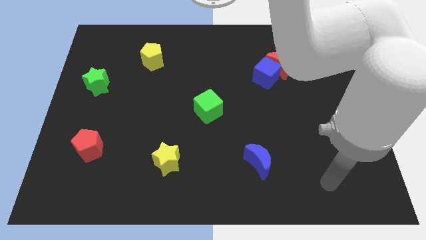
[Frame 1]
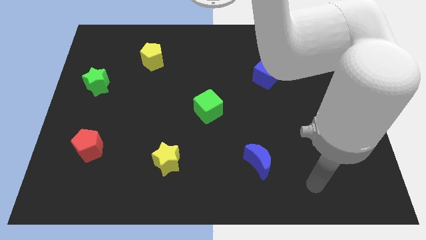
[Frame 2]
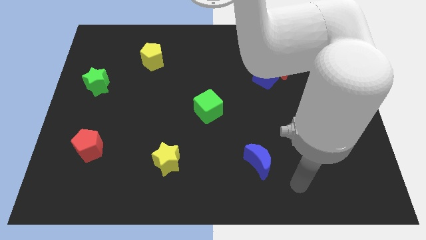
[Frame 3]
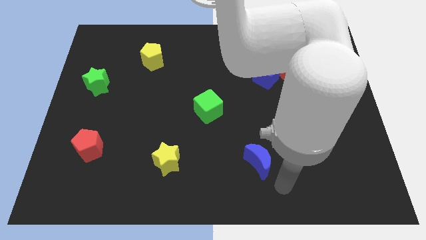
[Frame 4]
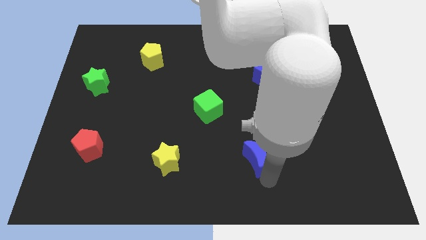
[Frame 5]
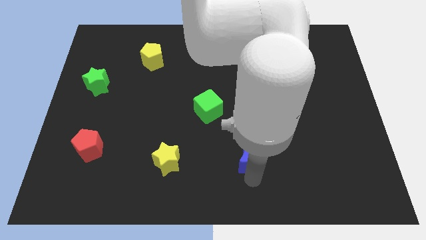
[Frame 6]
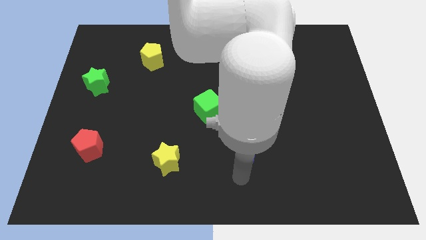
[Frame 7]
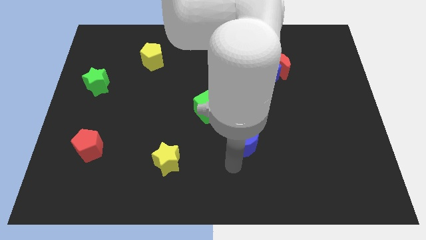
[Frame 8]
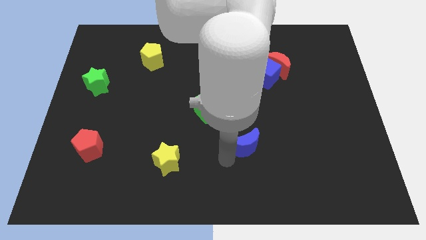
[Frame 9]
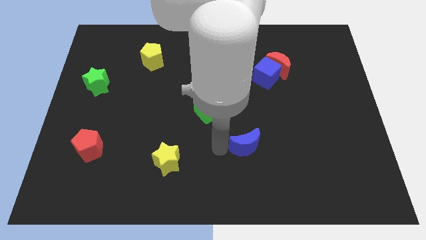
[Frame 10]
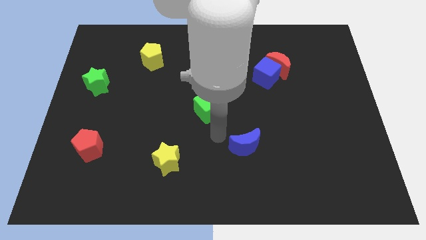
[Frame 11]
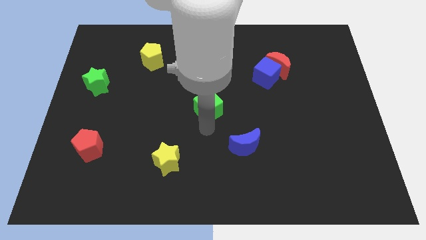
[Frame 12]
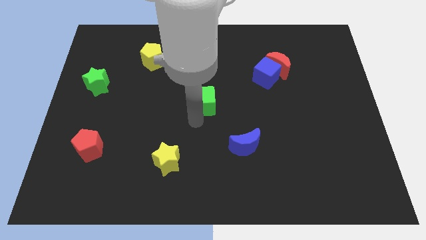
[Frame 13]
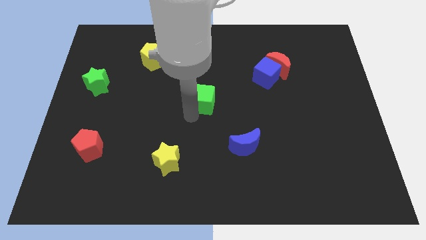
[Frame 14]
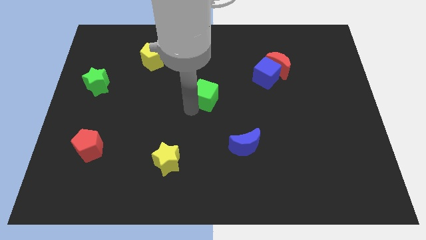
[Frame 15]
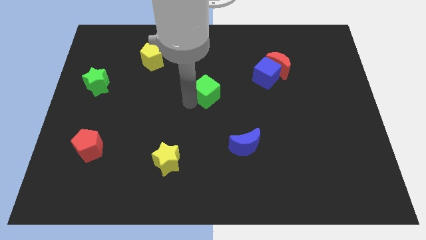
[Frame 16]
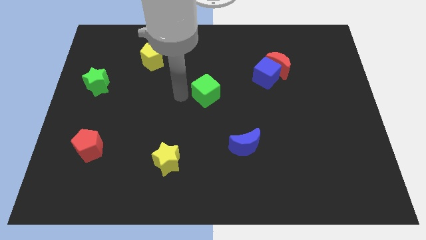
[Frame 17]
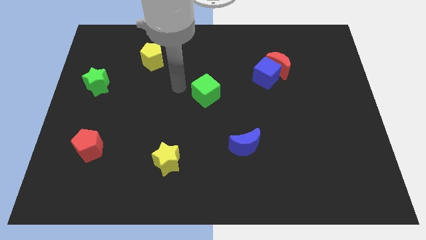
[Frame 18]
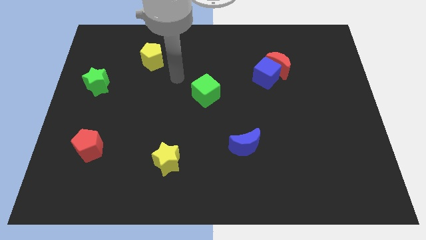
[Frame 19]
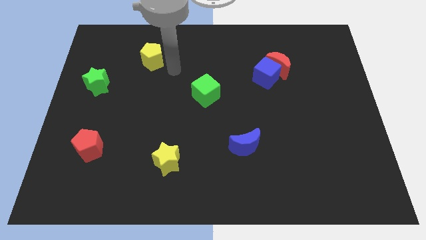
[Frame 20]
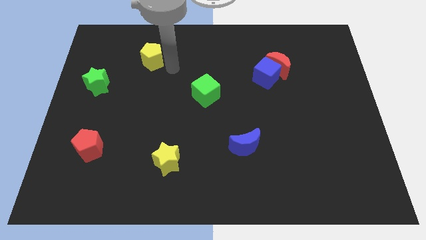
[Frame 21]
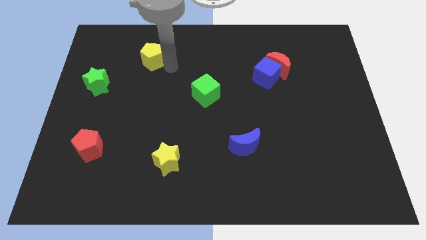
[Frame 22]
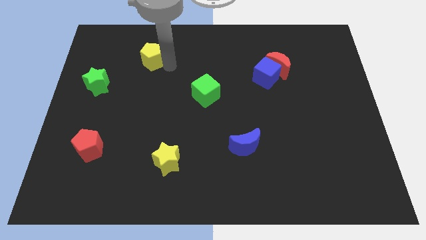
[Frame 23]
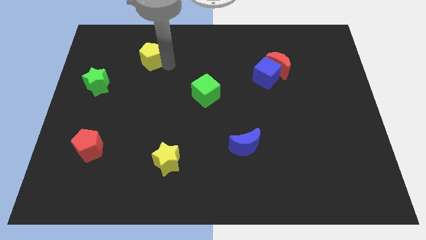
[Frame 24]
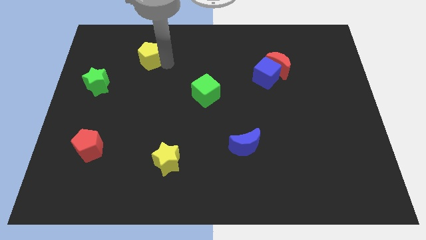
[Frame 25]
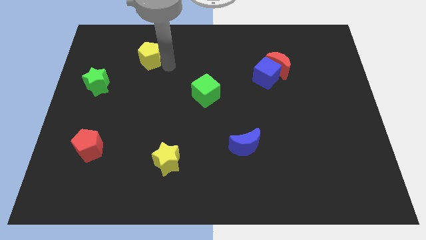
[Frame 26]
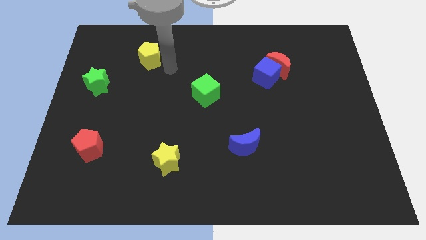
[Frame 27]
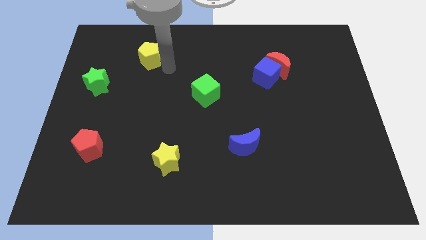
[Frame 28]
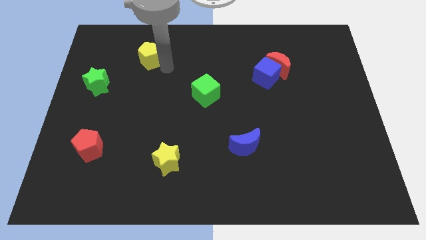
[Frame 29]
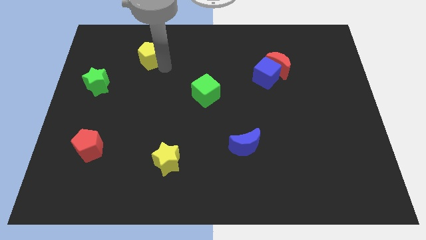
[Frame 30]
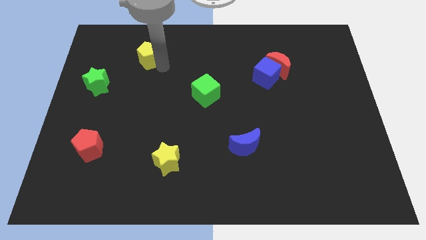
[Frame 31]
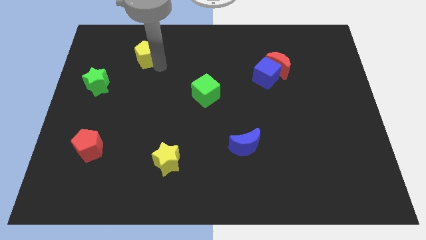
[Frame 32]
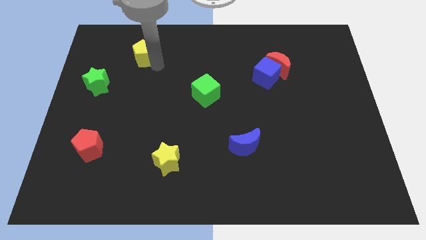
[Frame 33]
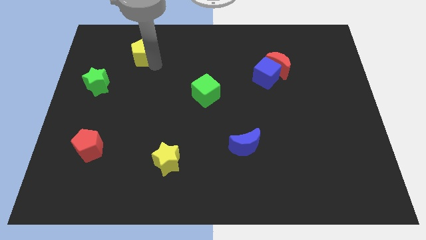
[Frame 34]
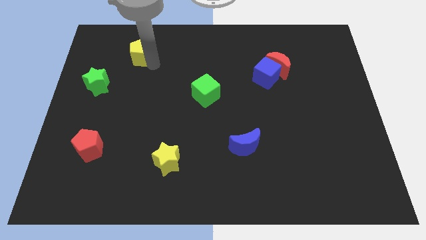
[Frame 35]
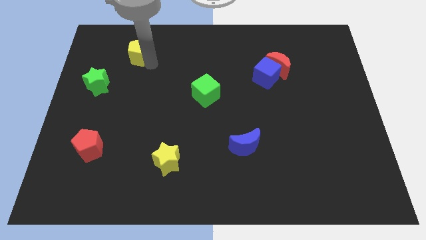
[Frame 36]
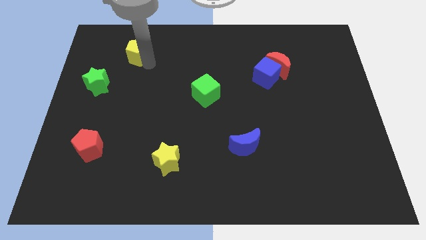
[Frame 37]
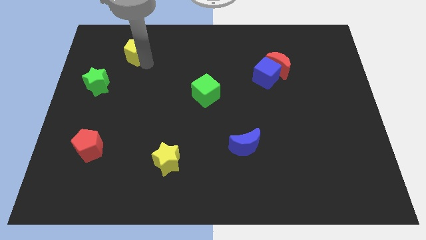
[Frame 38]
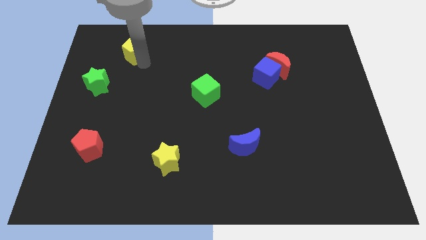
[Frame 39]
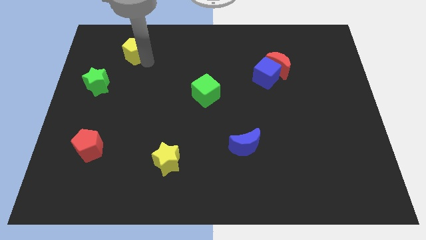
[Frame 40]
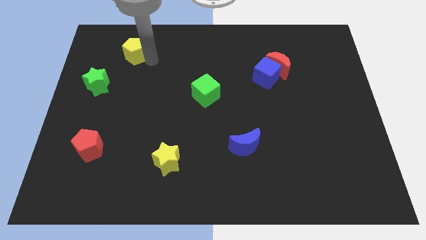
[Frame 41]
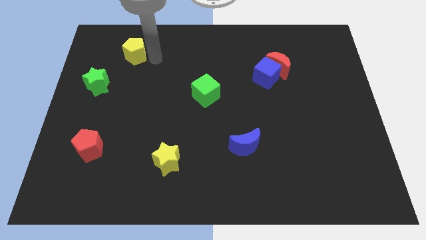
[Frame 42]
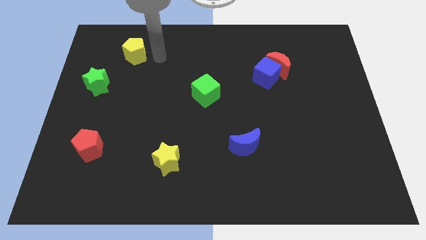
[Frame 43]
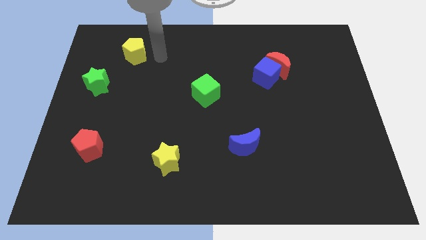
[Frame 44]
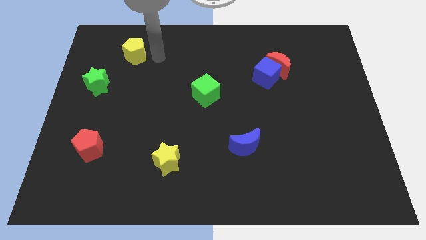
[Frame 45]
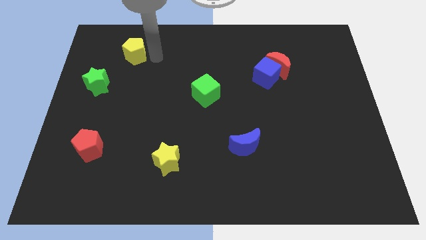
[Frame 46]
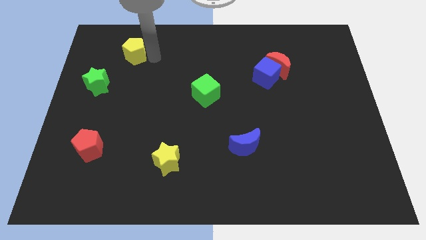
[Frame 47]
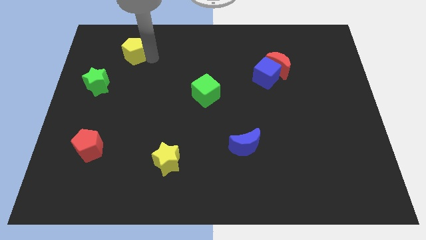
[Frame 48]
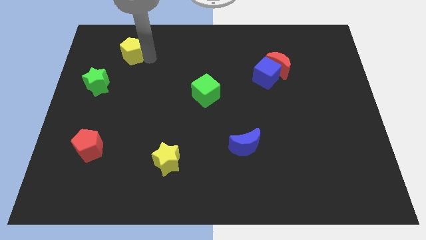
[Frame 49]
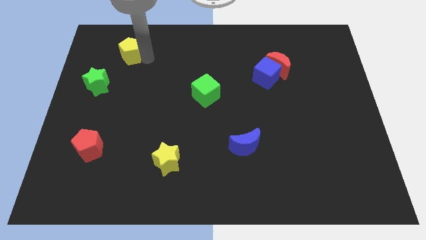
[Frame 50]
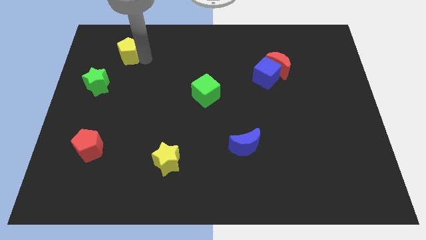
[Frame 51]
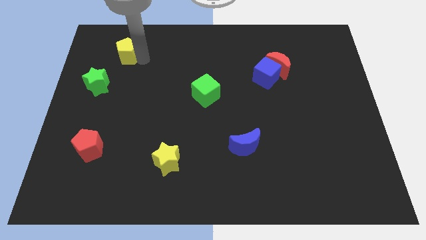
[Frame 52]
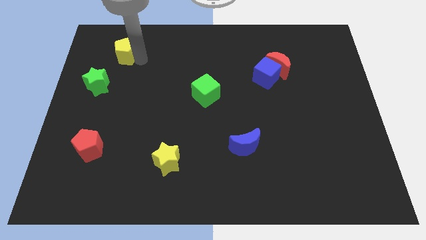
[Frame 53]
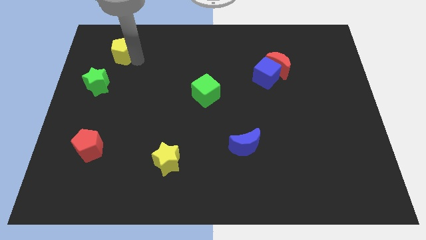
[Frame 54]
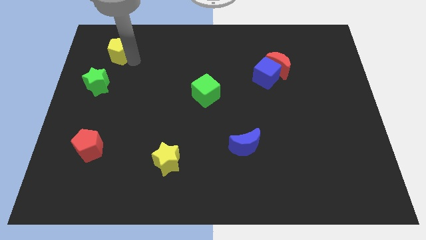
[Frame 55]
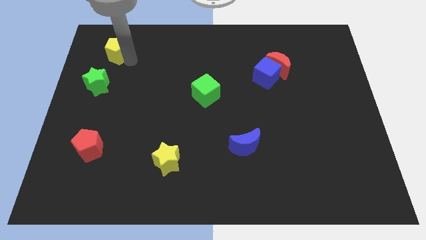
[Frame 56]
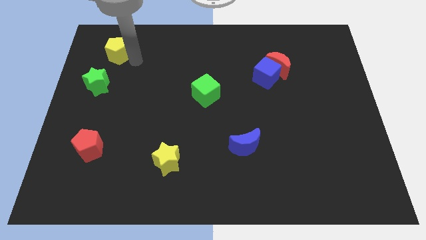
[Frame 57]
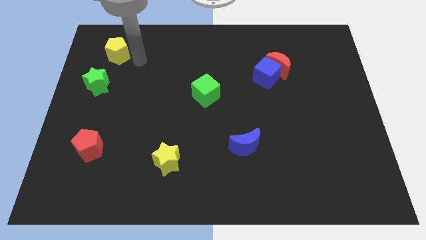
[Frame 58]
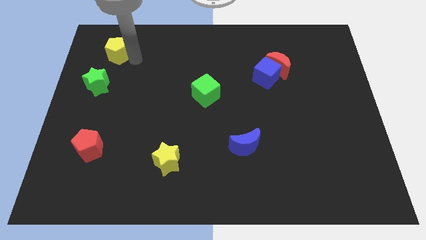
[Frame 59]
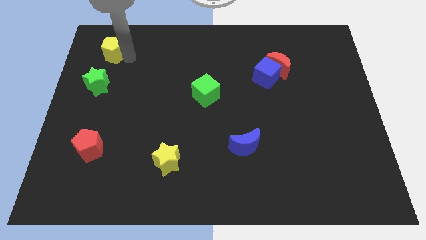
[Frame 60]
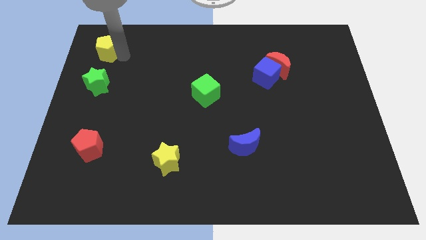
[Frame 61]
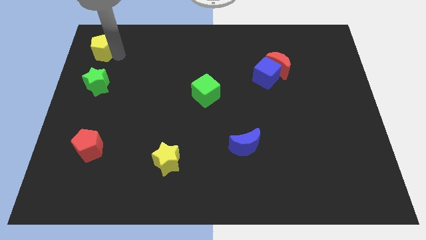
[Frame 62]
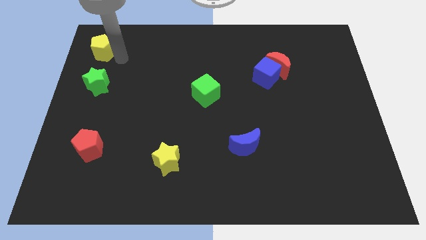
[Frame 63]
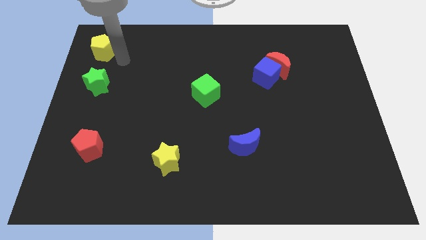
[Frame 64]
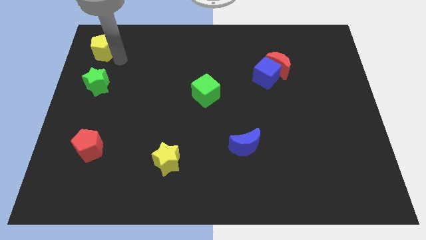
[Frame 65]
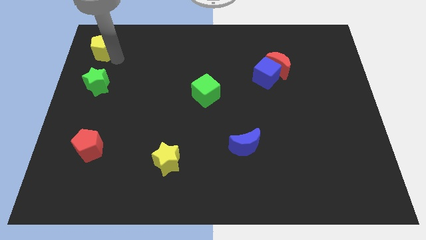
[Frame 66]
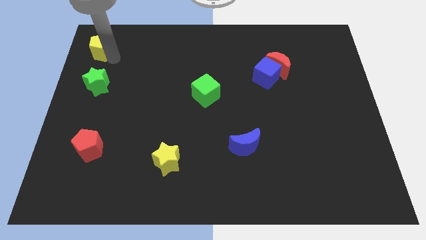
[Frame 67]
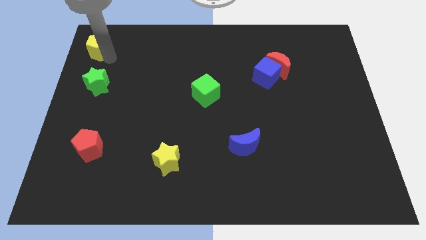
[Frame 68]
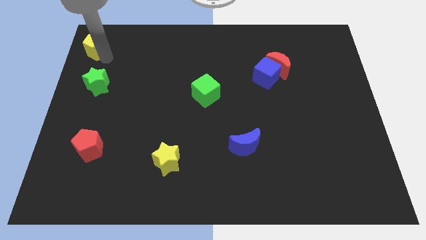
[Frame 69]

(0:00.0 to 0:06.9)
put the yellow pentagon to the top left corner
